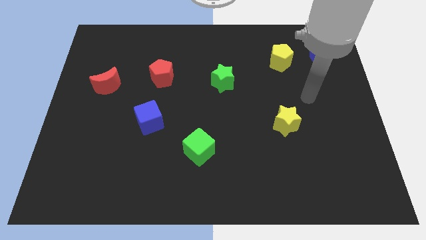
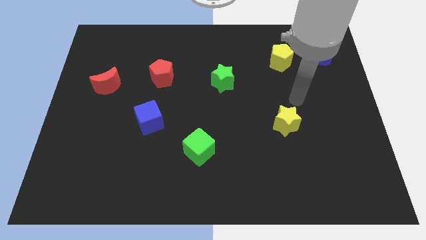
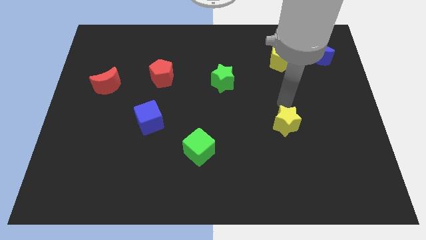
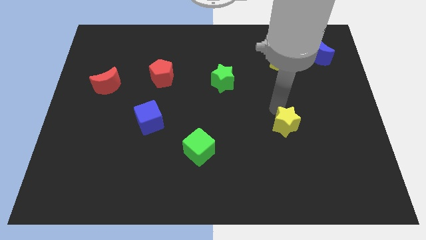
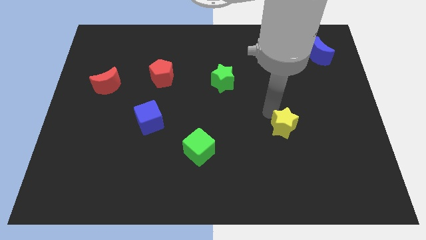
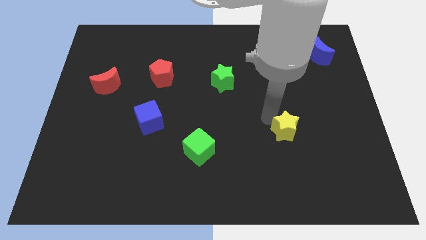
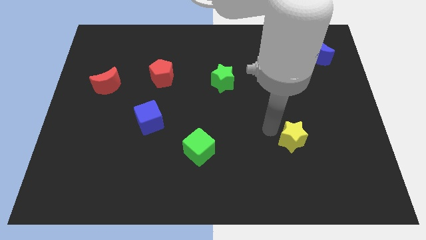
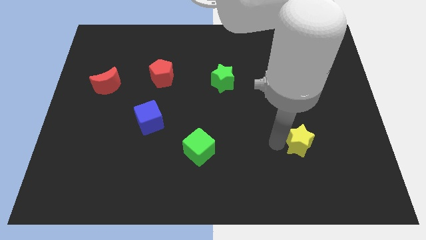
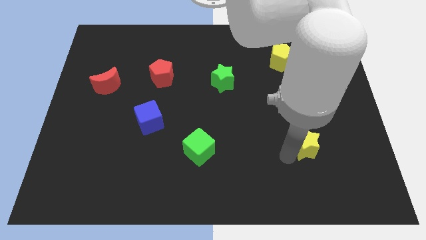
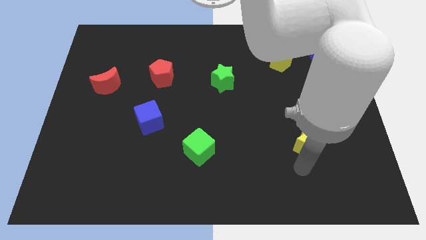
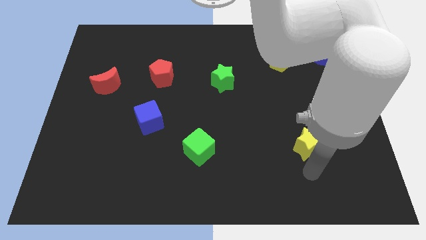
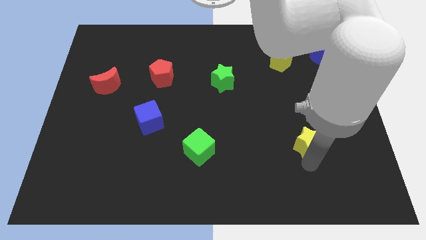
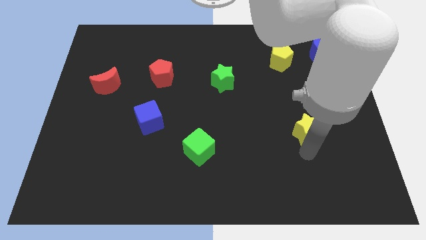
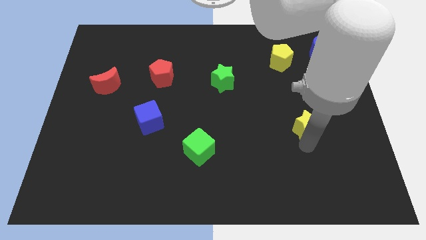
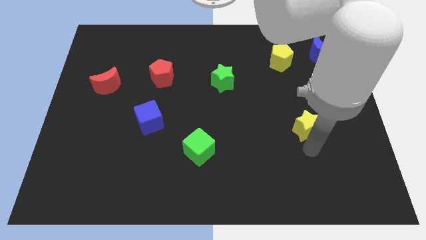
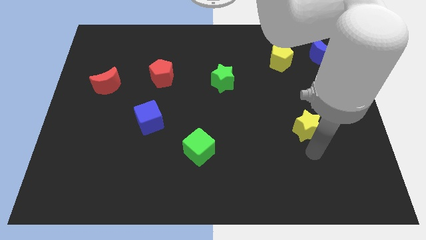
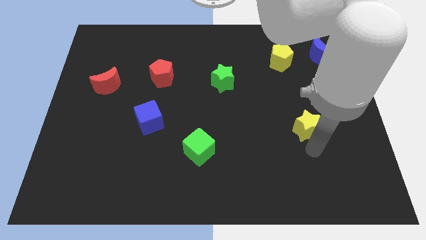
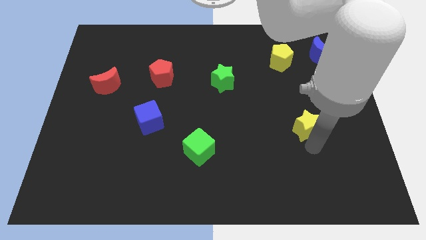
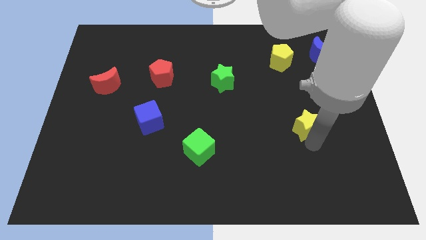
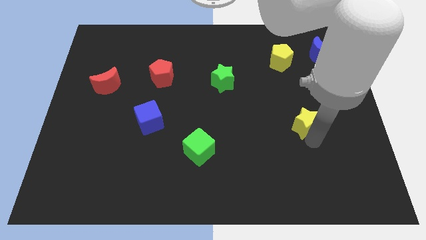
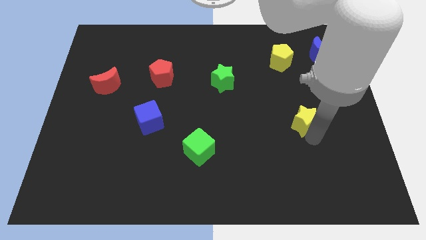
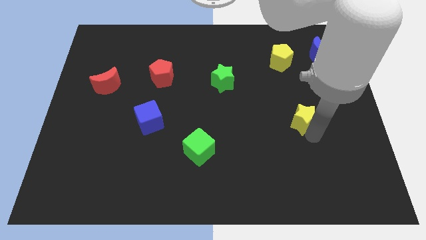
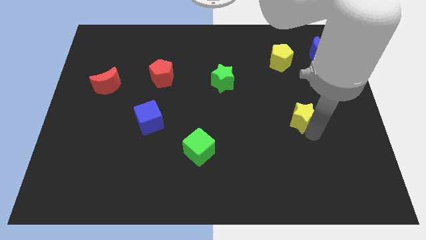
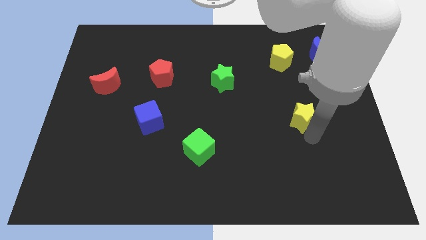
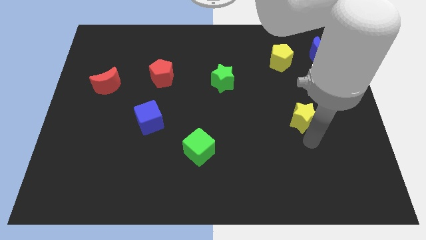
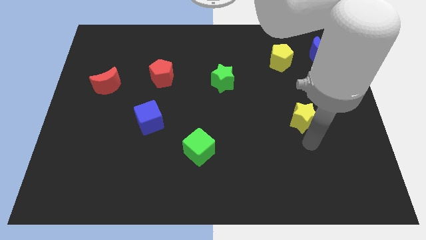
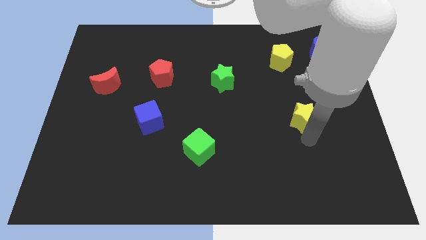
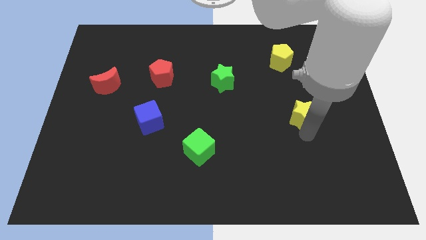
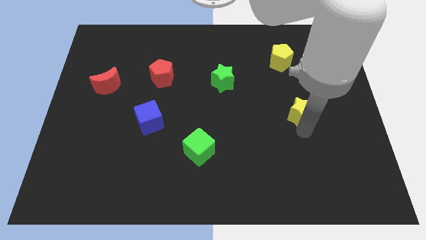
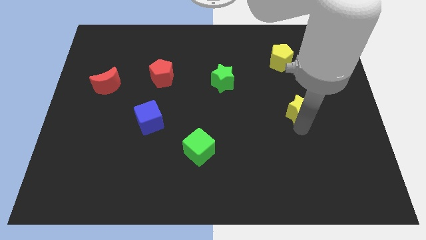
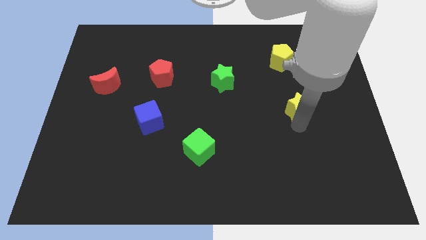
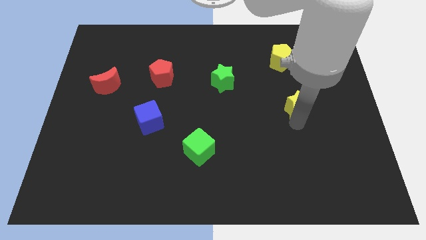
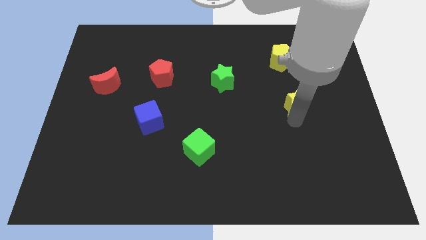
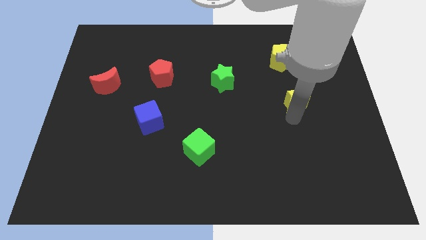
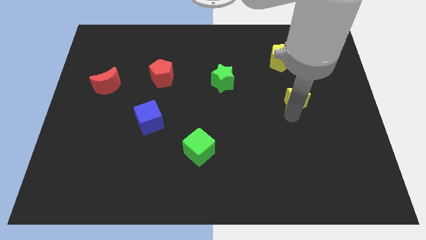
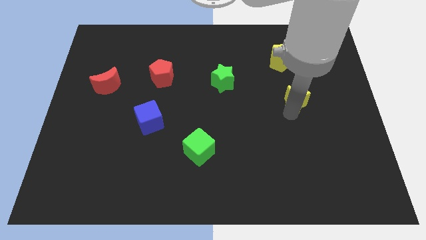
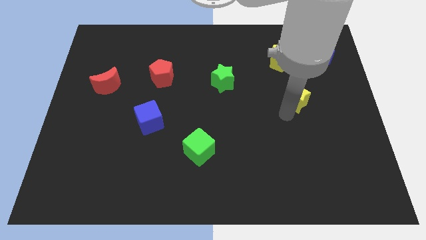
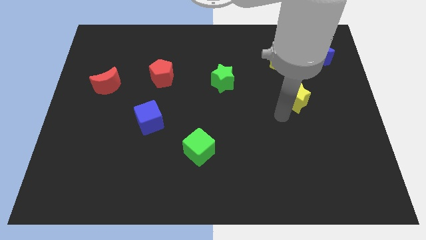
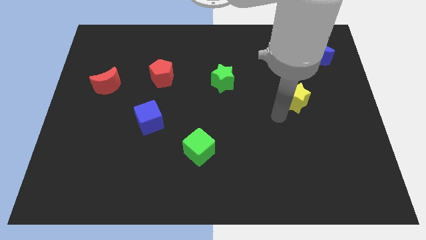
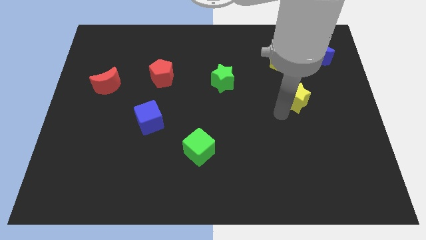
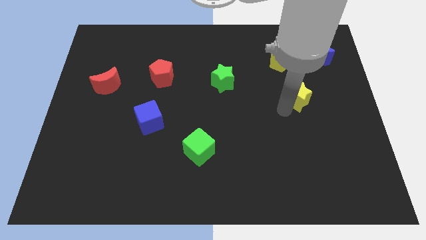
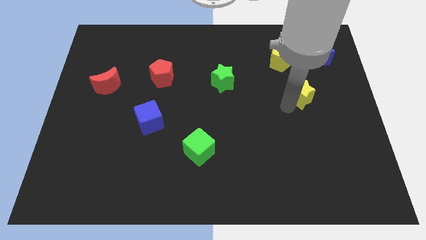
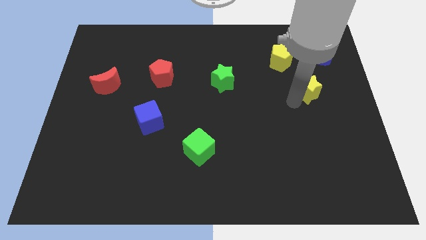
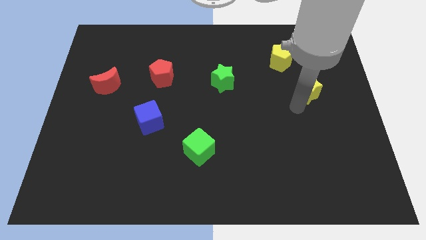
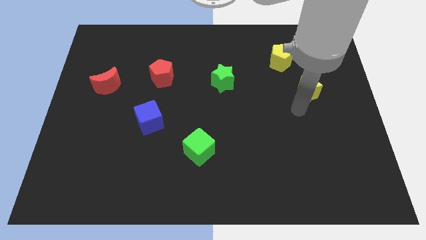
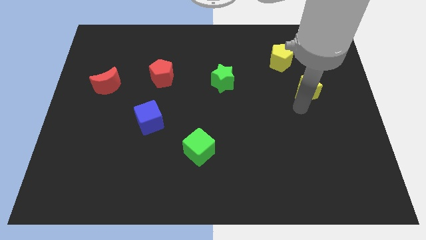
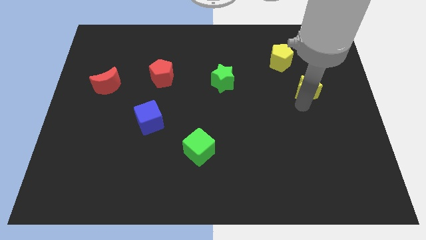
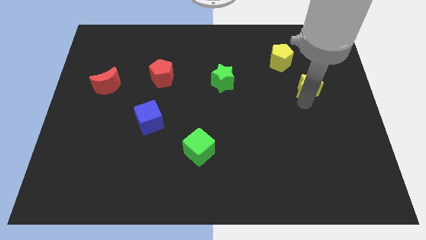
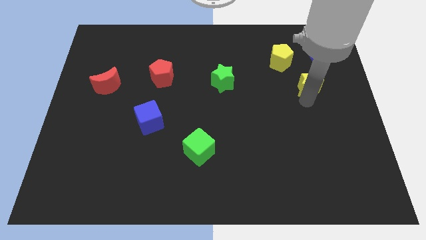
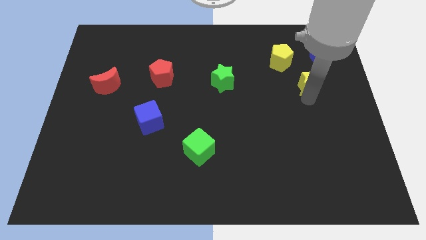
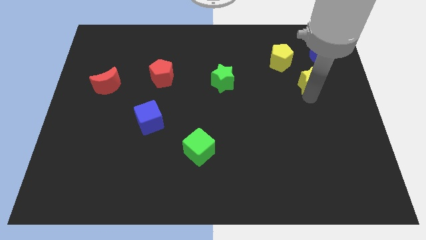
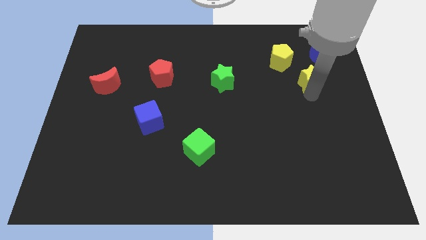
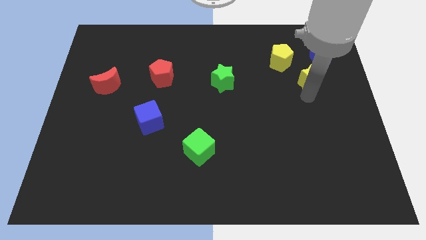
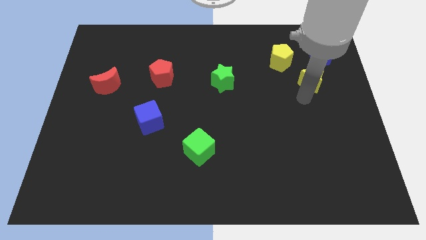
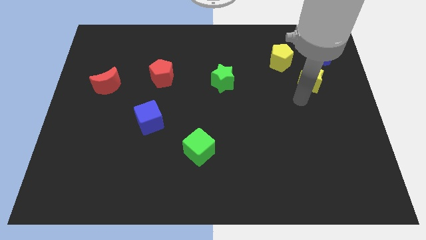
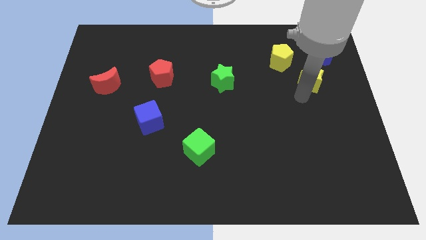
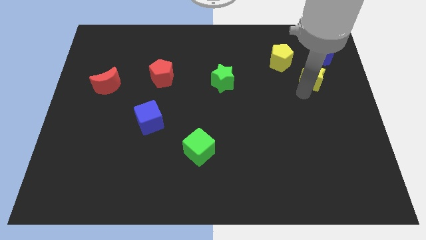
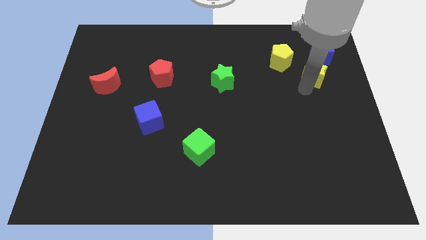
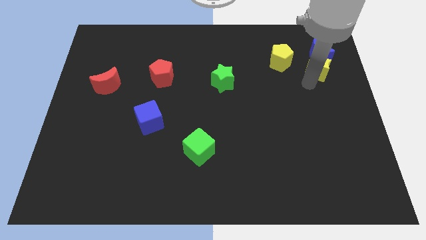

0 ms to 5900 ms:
put the yellow star close to the blue moon

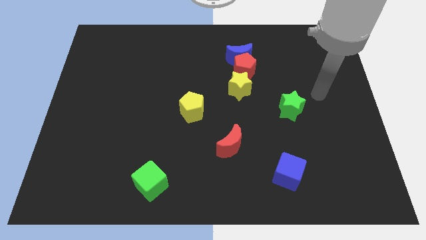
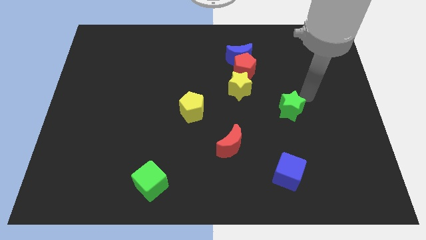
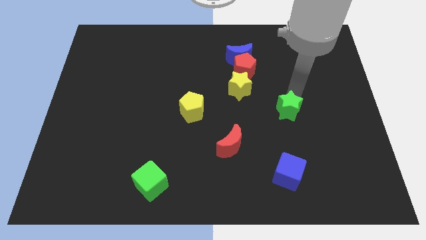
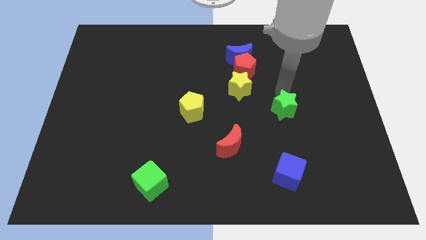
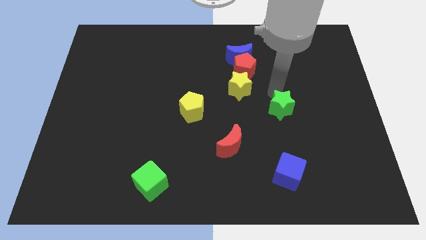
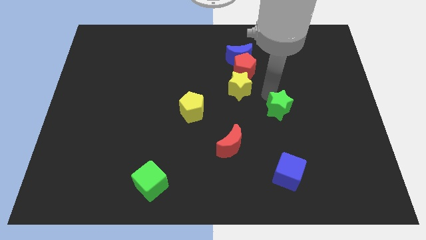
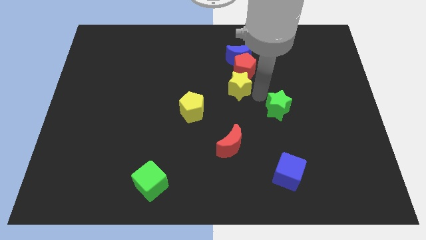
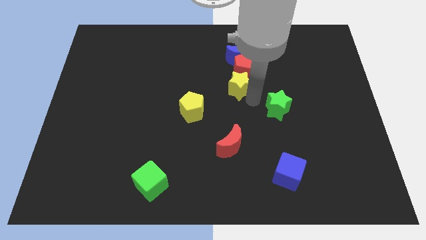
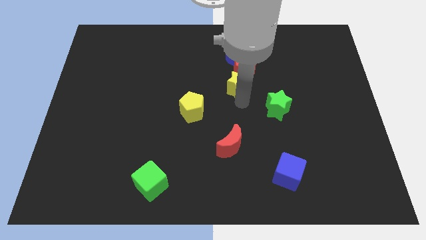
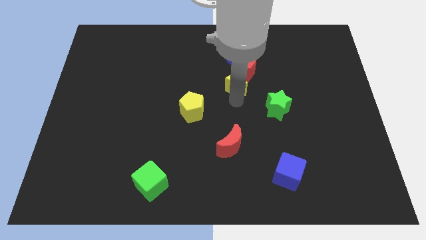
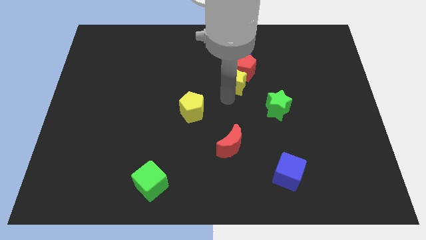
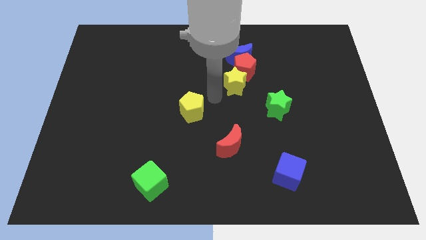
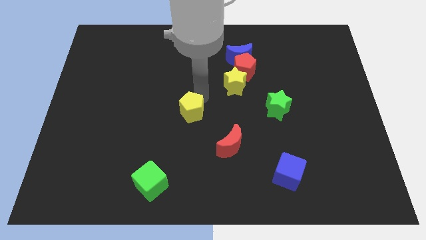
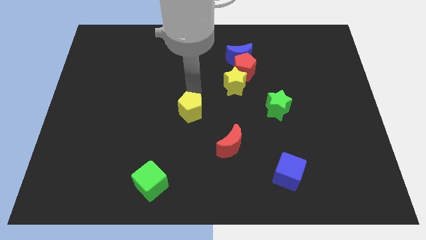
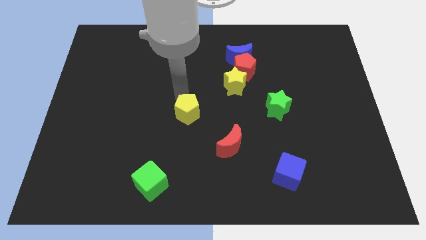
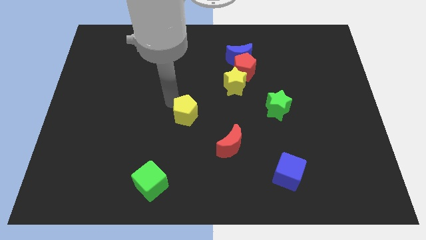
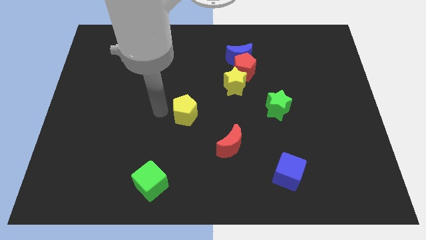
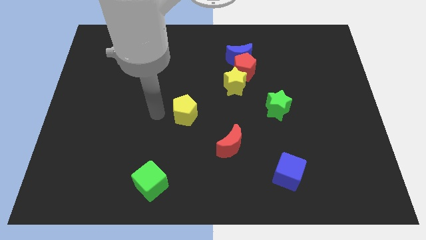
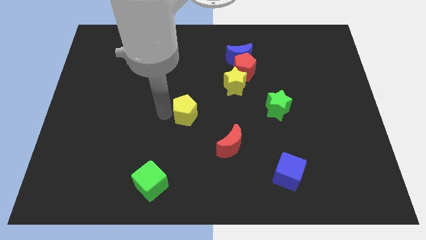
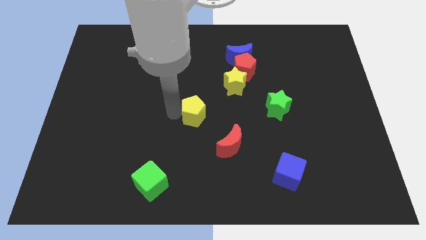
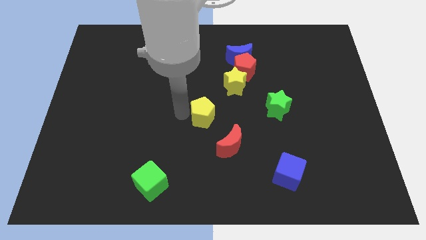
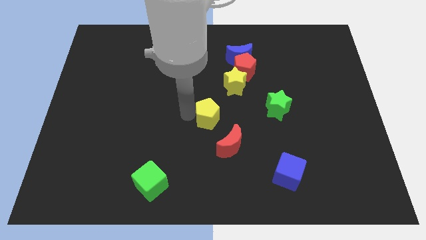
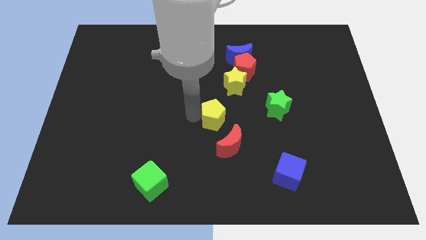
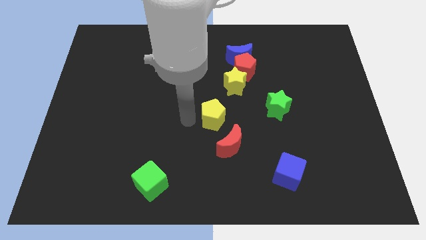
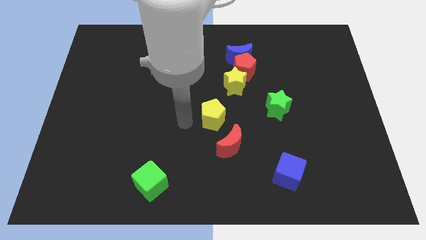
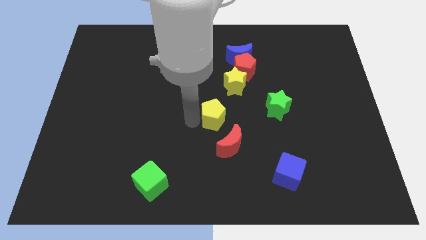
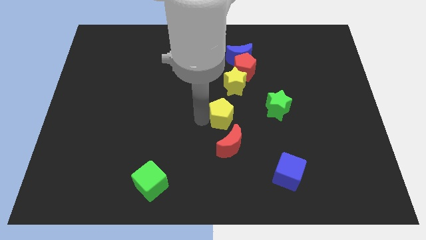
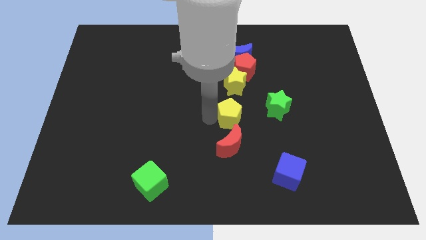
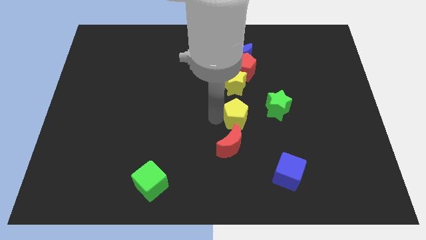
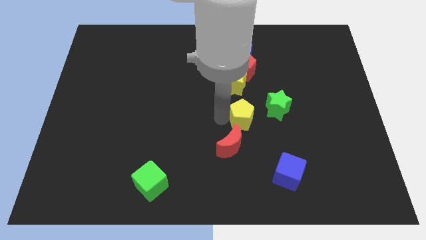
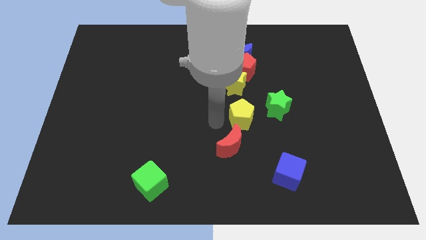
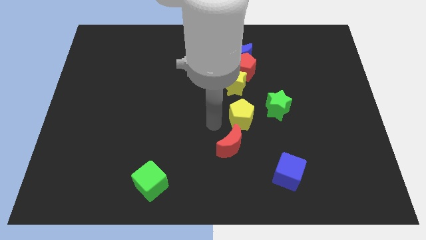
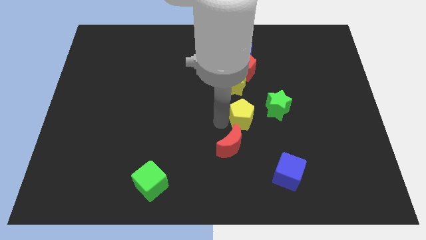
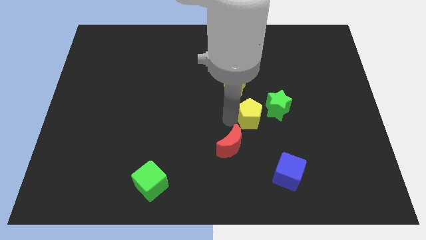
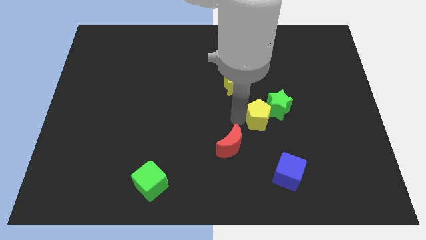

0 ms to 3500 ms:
push the yellow pentagon towards the green star
